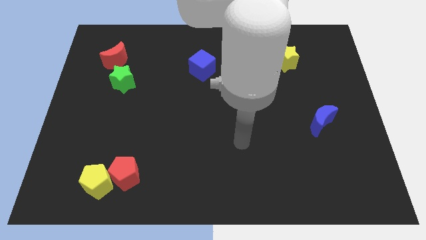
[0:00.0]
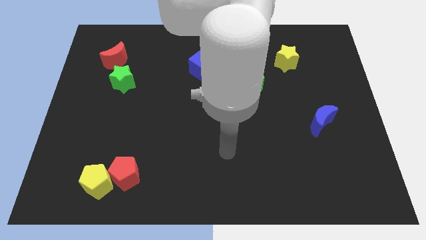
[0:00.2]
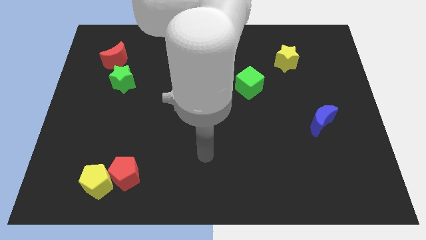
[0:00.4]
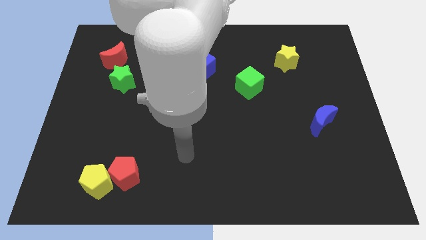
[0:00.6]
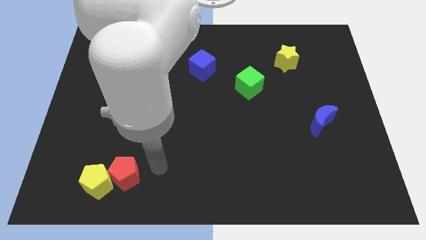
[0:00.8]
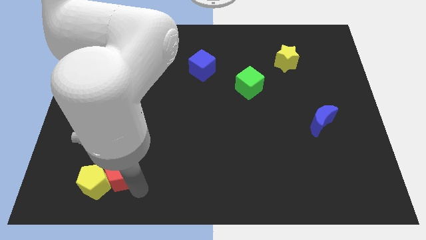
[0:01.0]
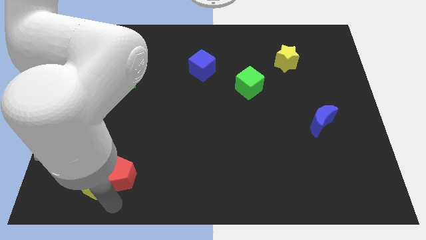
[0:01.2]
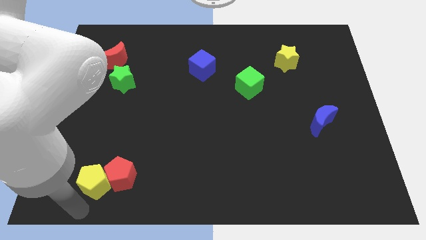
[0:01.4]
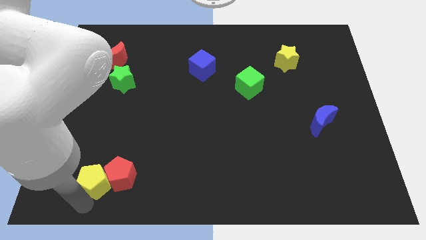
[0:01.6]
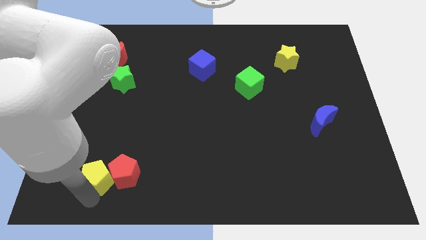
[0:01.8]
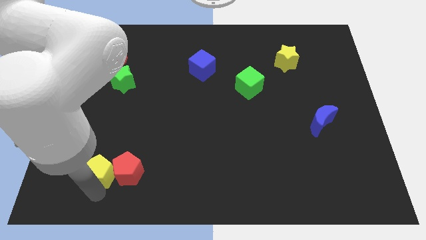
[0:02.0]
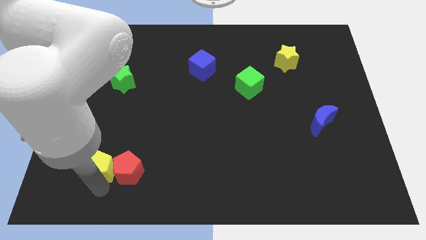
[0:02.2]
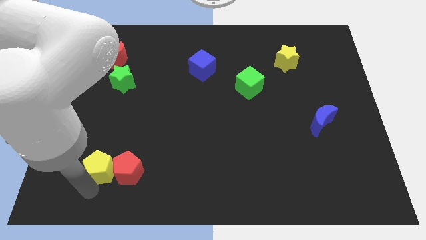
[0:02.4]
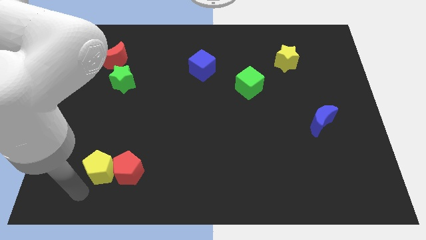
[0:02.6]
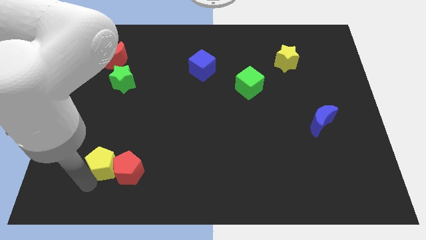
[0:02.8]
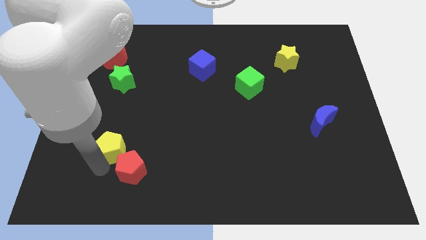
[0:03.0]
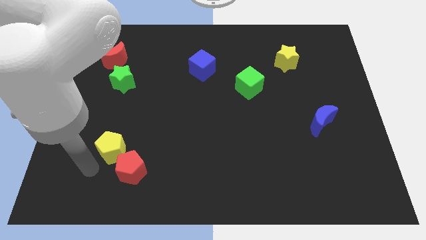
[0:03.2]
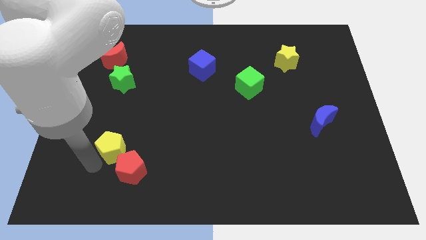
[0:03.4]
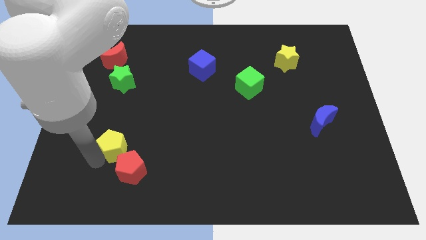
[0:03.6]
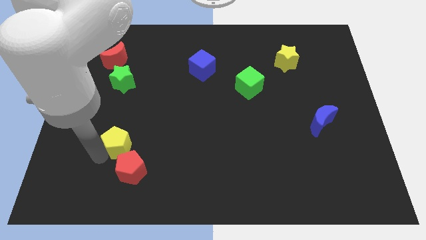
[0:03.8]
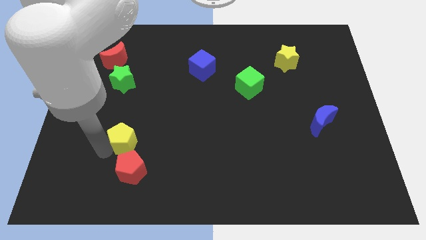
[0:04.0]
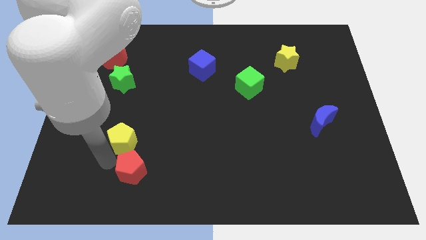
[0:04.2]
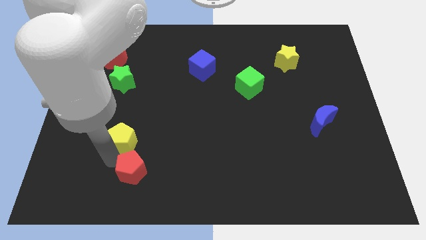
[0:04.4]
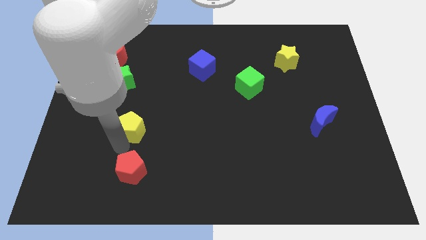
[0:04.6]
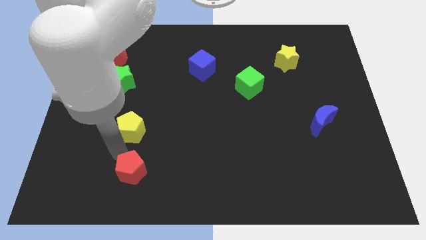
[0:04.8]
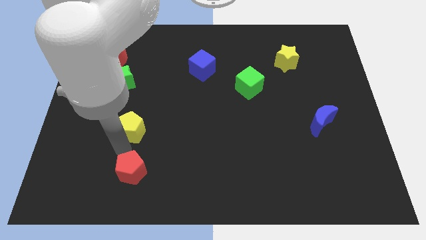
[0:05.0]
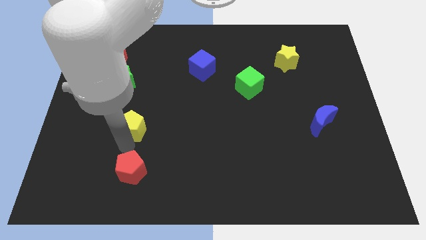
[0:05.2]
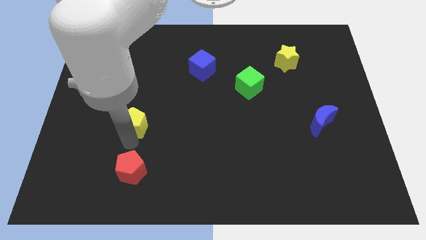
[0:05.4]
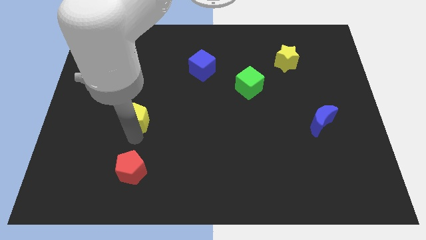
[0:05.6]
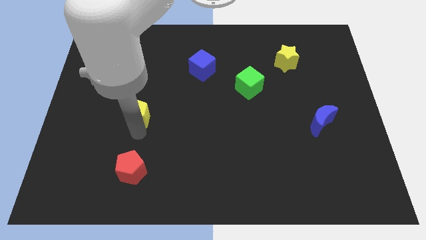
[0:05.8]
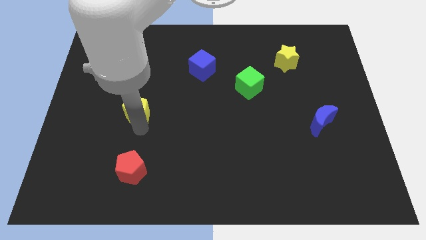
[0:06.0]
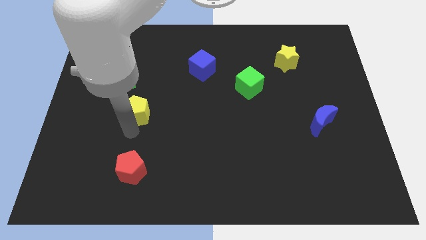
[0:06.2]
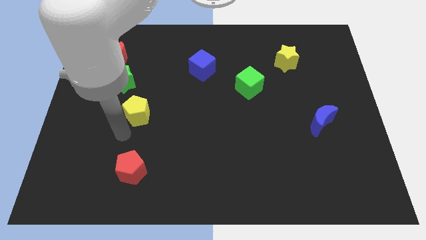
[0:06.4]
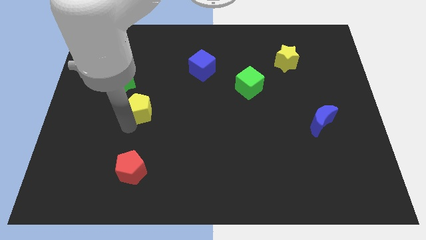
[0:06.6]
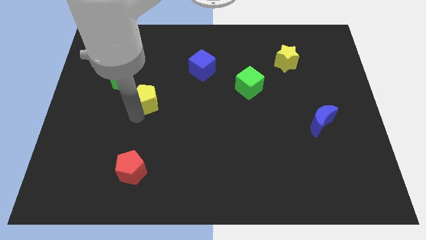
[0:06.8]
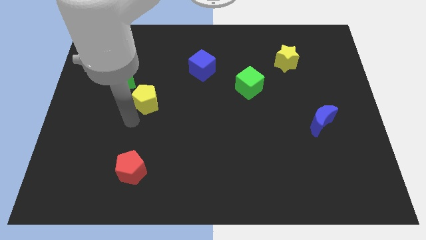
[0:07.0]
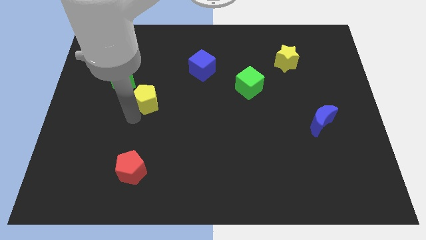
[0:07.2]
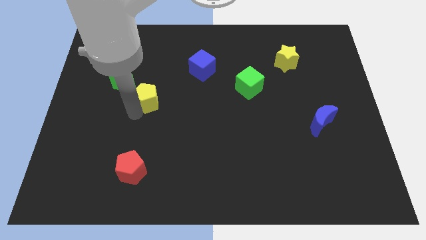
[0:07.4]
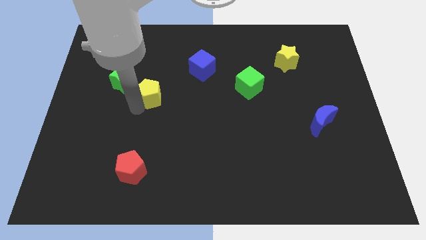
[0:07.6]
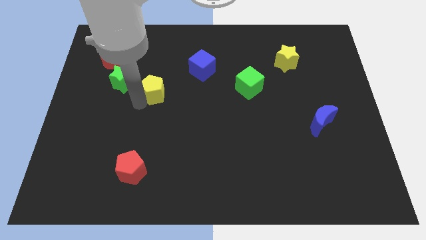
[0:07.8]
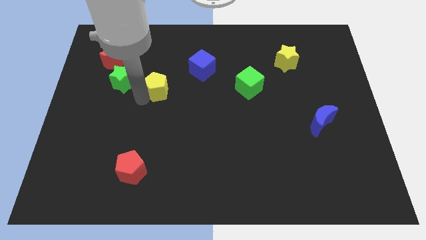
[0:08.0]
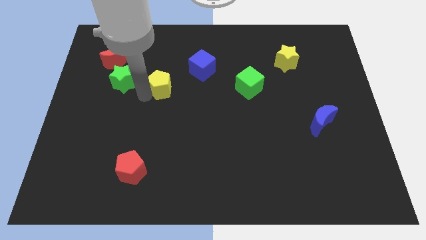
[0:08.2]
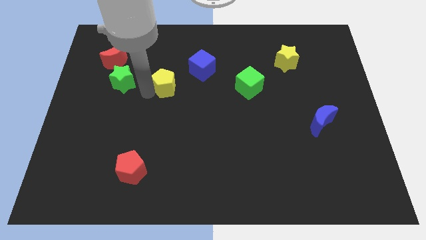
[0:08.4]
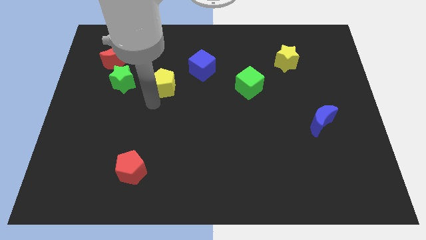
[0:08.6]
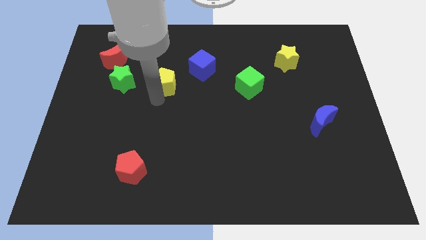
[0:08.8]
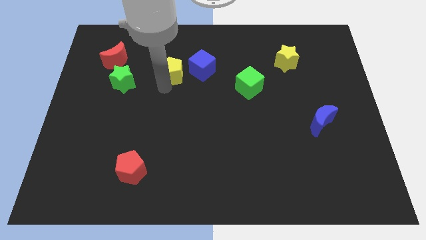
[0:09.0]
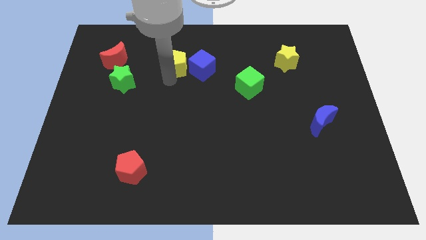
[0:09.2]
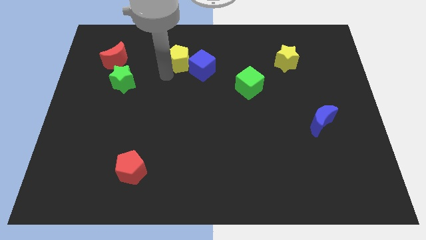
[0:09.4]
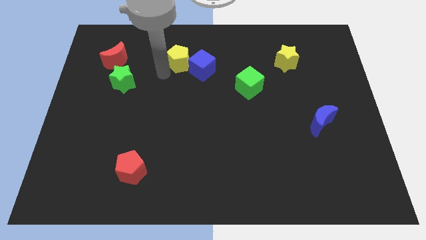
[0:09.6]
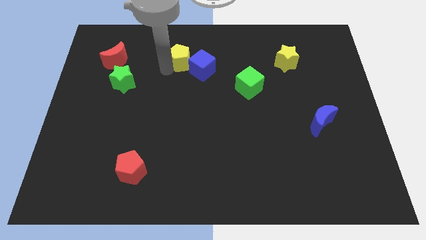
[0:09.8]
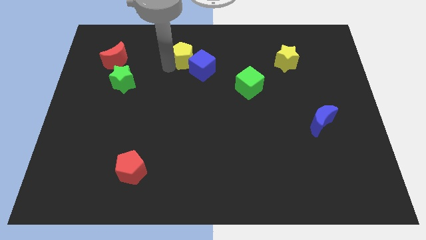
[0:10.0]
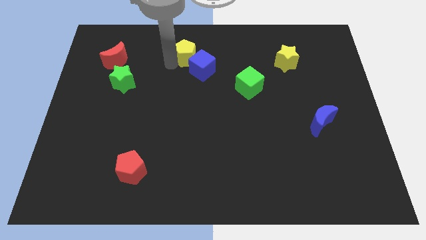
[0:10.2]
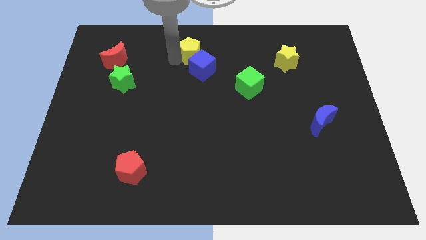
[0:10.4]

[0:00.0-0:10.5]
put the yellow pentagon to the towards your base

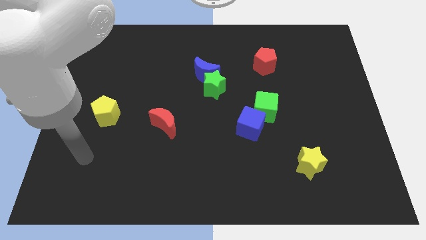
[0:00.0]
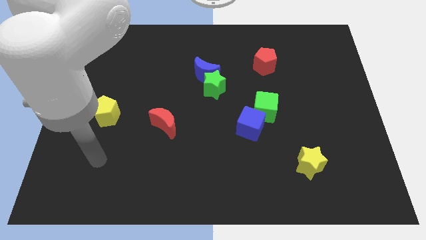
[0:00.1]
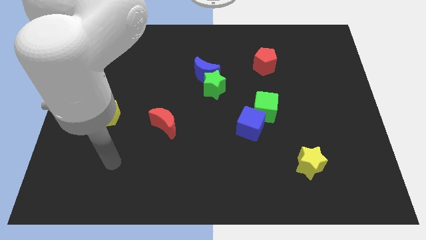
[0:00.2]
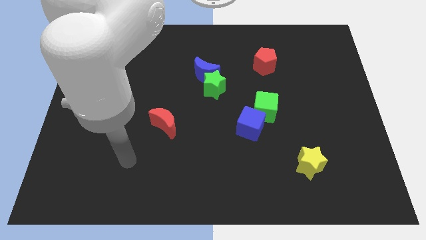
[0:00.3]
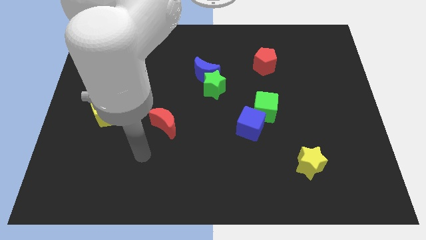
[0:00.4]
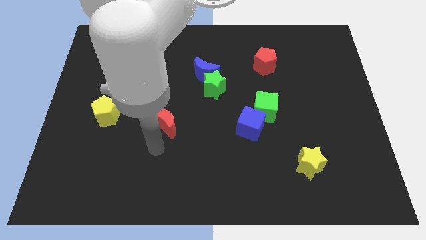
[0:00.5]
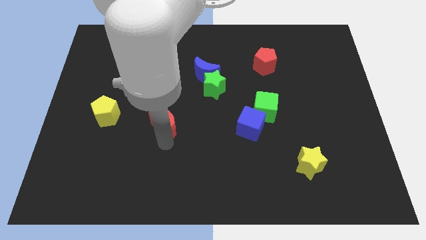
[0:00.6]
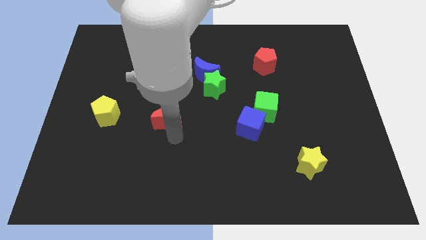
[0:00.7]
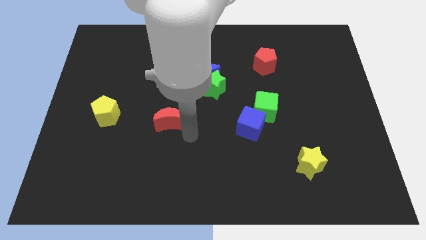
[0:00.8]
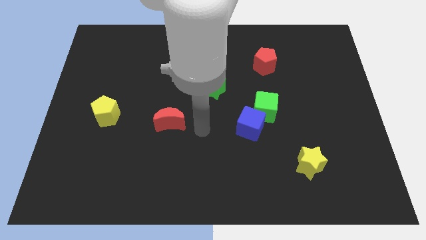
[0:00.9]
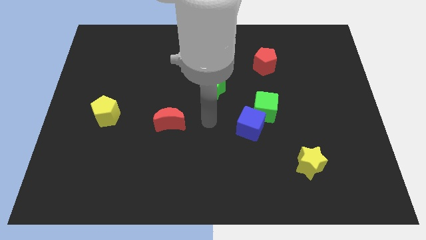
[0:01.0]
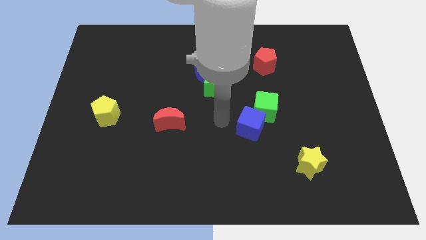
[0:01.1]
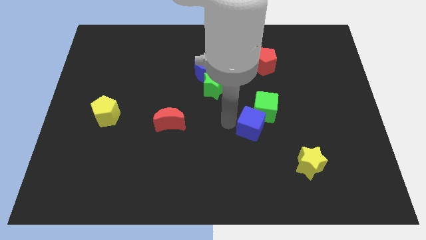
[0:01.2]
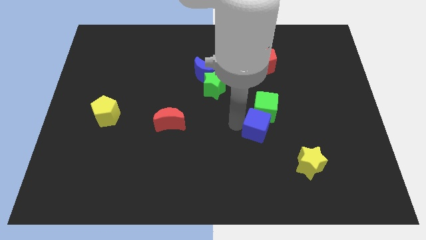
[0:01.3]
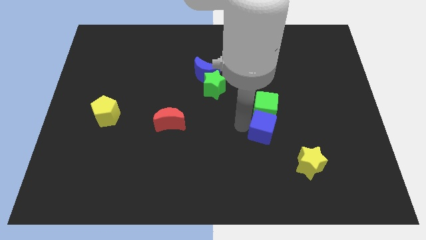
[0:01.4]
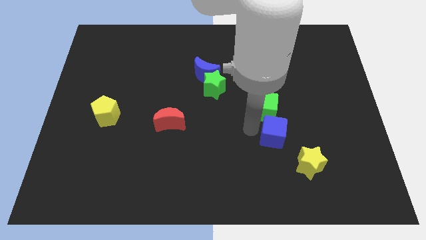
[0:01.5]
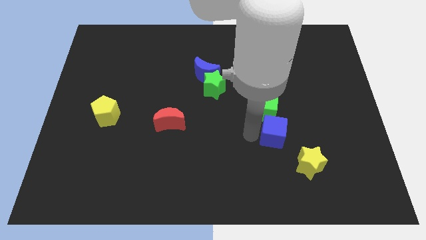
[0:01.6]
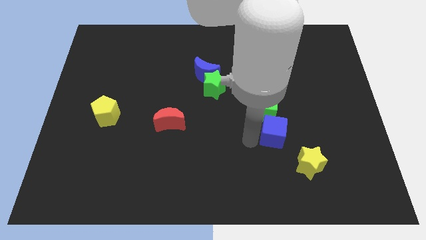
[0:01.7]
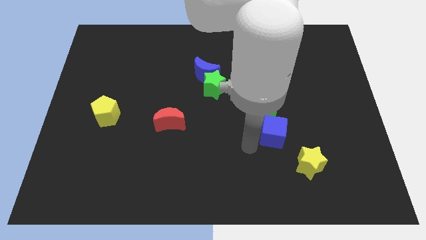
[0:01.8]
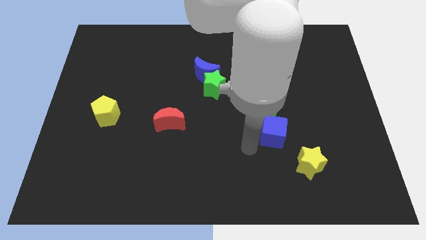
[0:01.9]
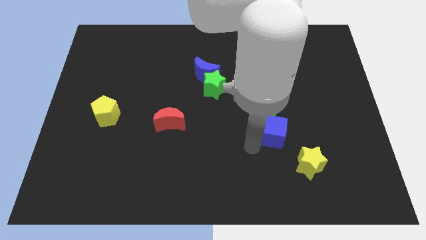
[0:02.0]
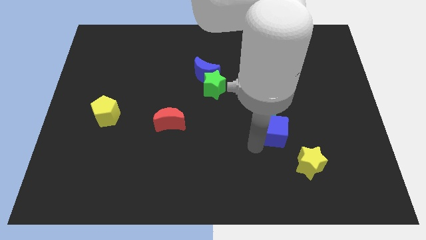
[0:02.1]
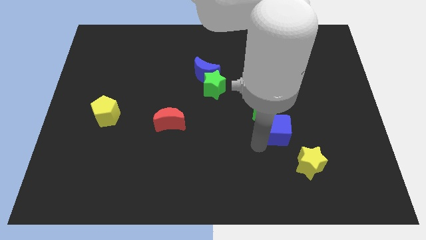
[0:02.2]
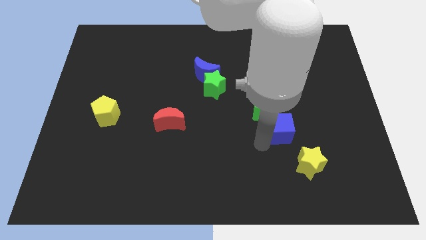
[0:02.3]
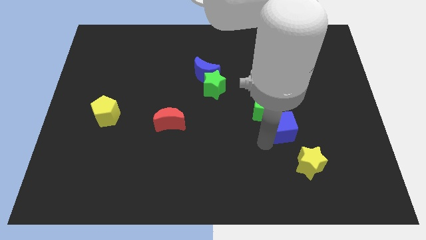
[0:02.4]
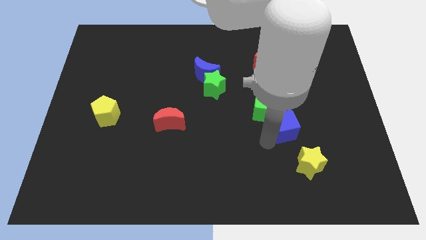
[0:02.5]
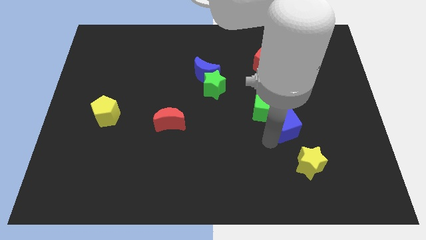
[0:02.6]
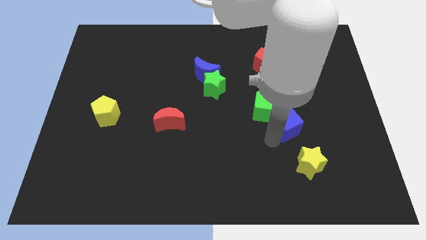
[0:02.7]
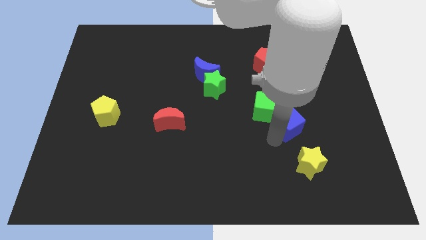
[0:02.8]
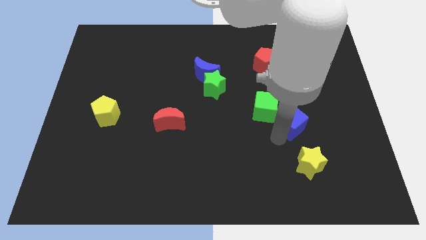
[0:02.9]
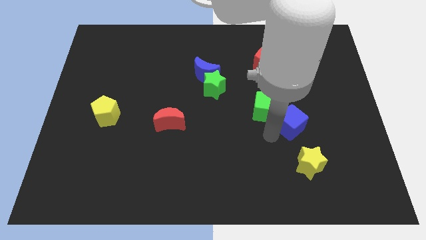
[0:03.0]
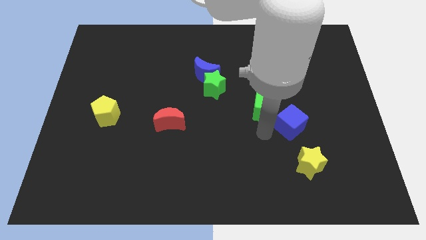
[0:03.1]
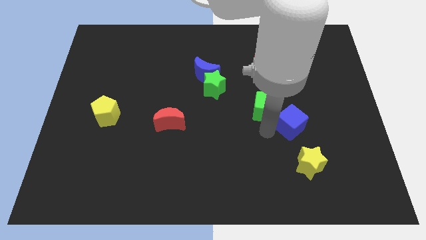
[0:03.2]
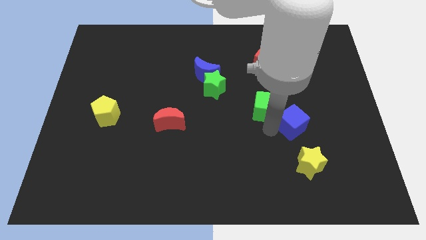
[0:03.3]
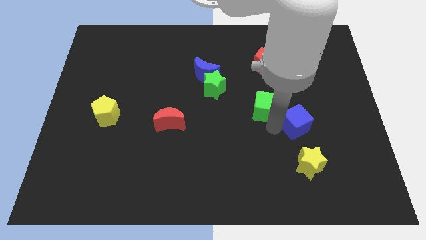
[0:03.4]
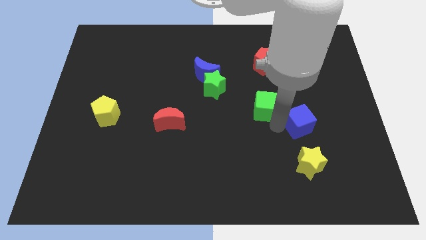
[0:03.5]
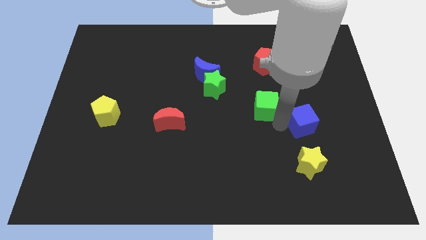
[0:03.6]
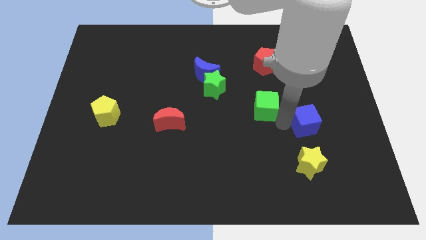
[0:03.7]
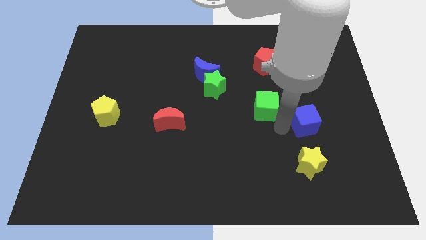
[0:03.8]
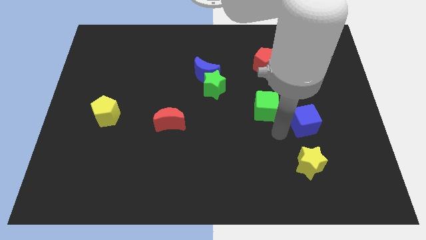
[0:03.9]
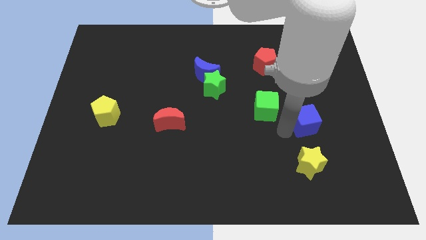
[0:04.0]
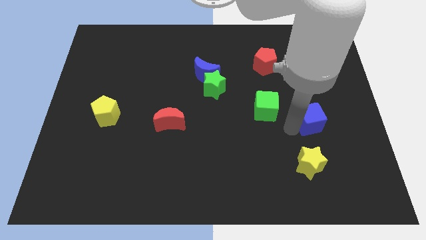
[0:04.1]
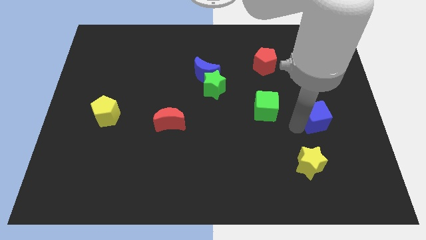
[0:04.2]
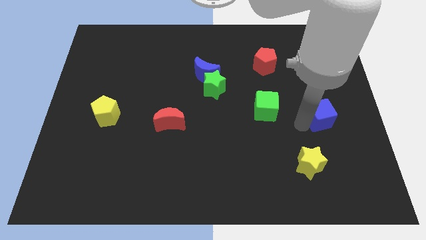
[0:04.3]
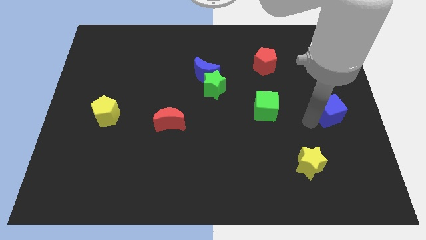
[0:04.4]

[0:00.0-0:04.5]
push the blue cube to the center right
